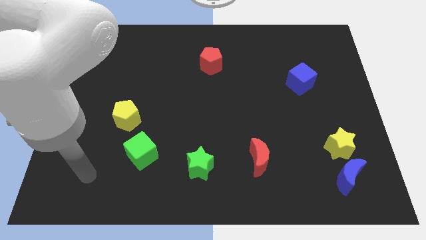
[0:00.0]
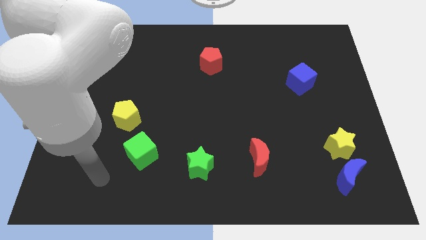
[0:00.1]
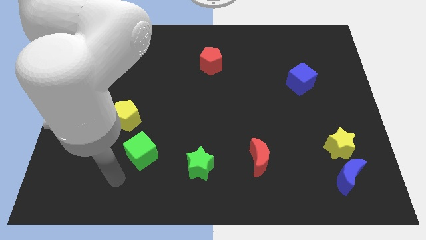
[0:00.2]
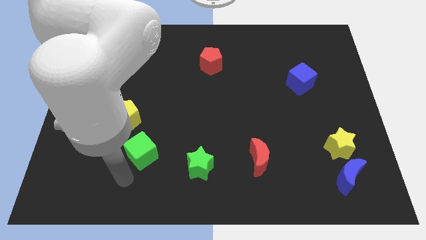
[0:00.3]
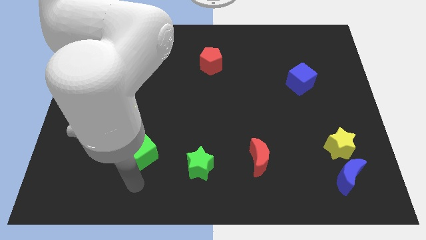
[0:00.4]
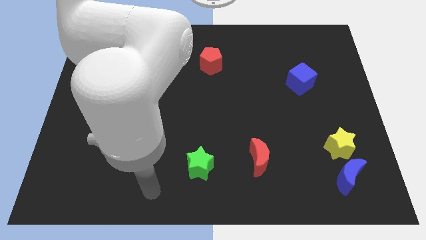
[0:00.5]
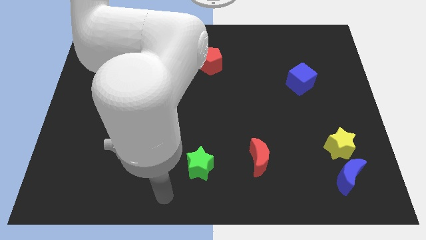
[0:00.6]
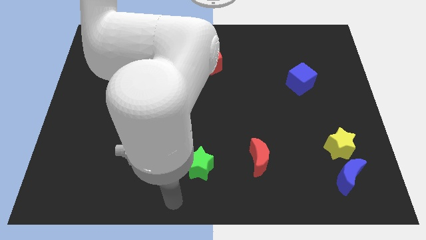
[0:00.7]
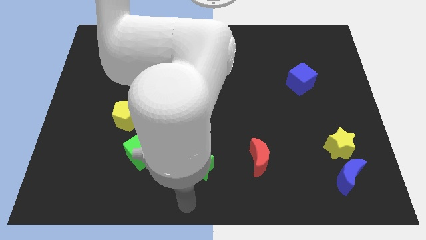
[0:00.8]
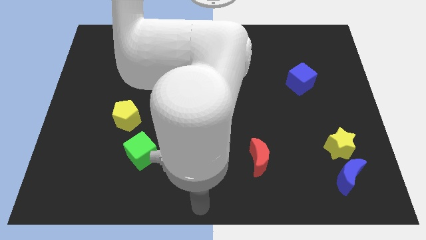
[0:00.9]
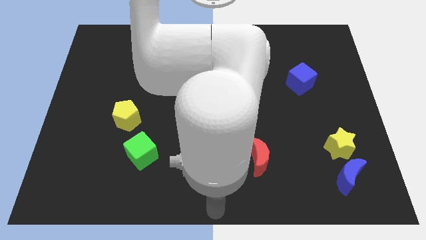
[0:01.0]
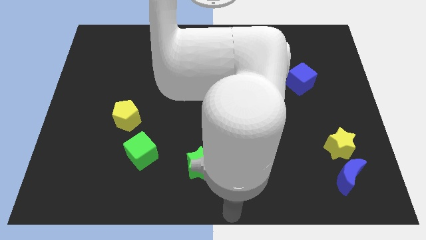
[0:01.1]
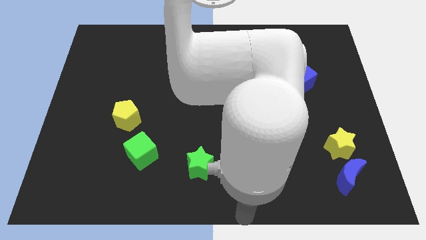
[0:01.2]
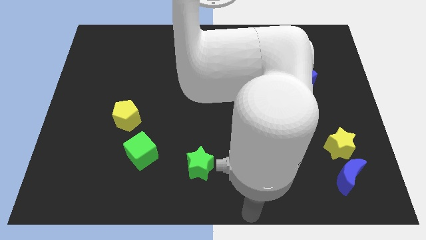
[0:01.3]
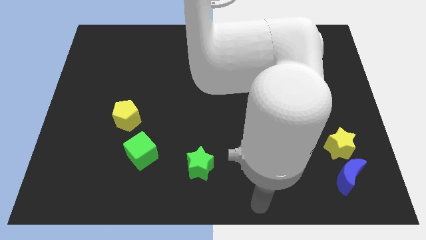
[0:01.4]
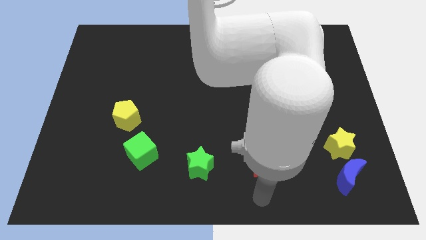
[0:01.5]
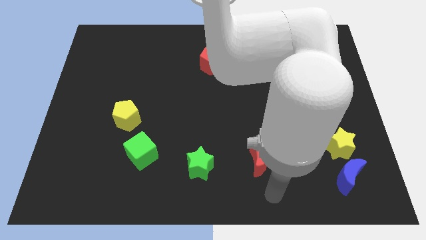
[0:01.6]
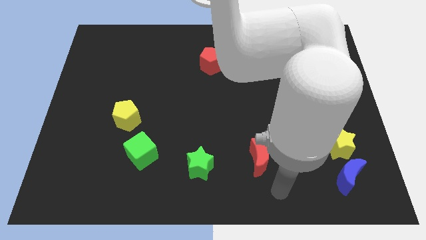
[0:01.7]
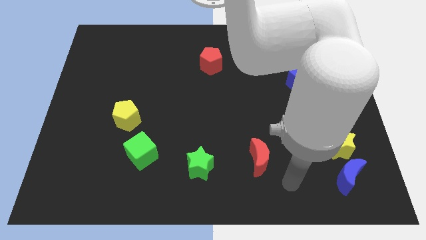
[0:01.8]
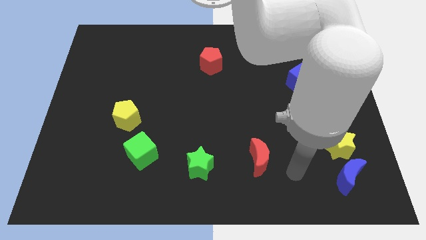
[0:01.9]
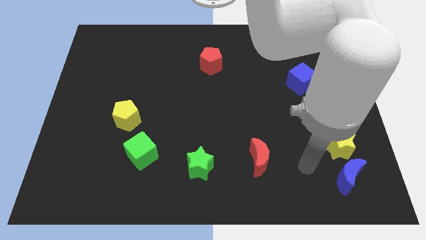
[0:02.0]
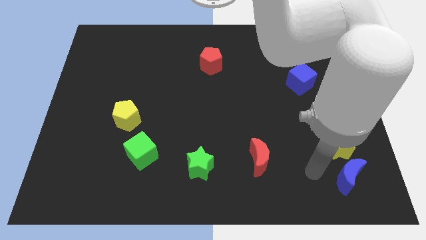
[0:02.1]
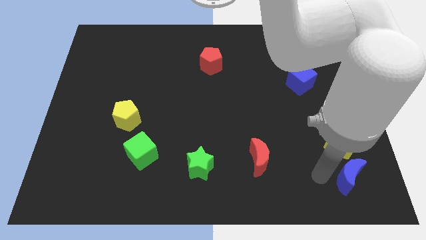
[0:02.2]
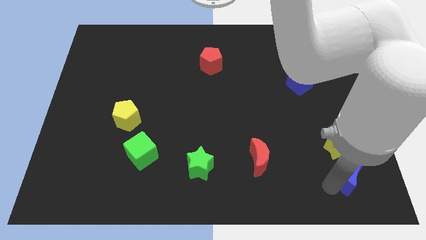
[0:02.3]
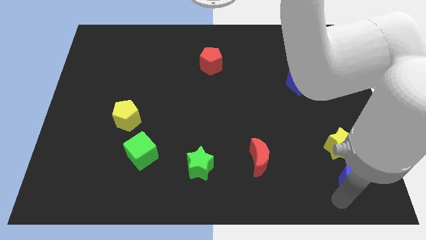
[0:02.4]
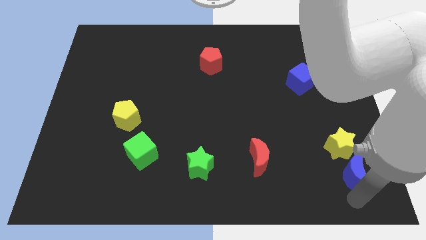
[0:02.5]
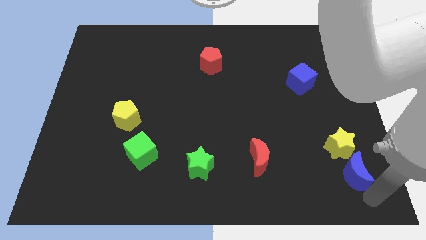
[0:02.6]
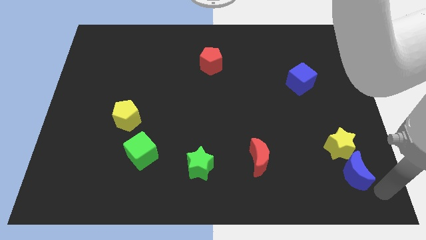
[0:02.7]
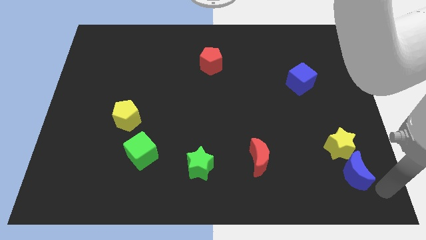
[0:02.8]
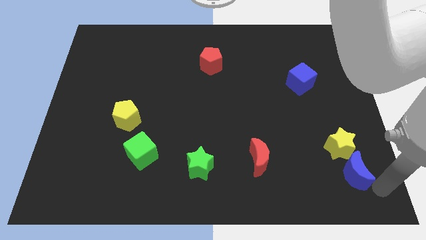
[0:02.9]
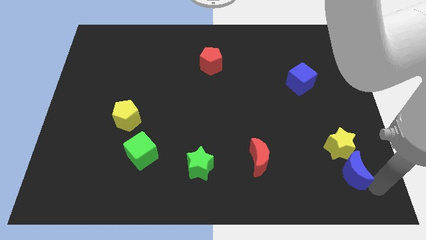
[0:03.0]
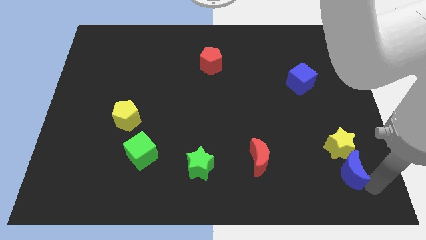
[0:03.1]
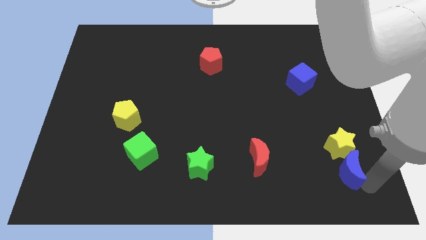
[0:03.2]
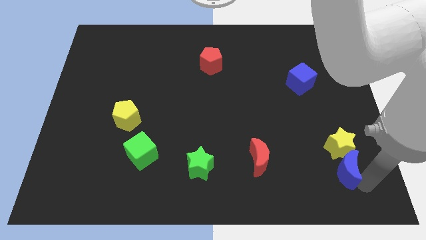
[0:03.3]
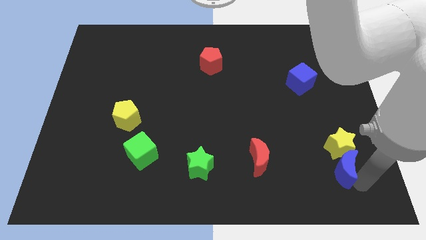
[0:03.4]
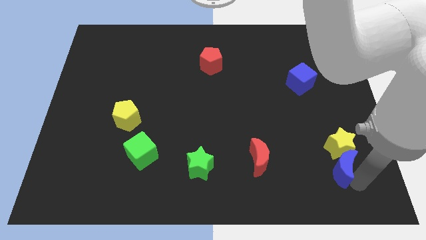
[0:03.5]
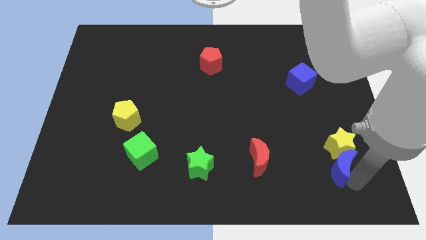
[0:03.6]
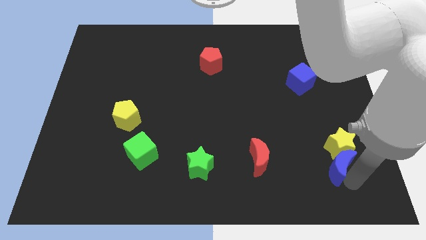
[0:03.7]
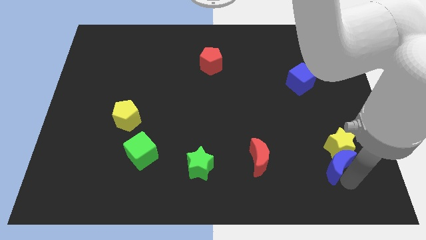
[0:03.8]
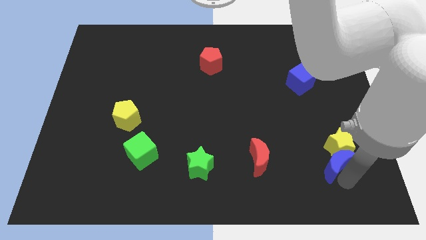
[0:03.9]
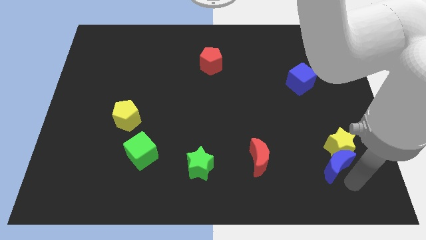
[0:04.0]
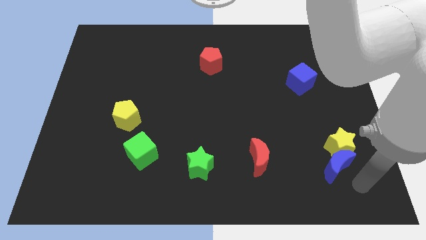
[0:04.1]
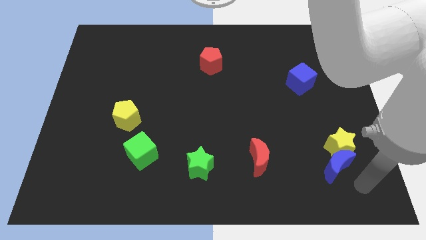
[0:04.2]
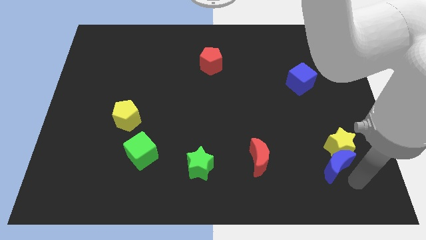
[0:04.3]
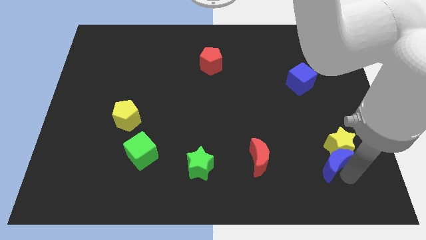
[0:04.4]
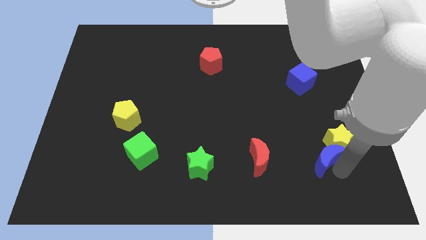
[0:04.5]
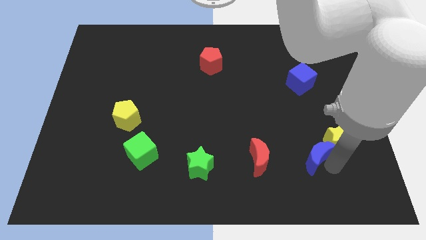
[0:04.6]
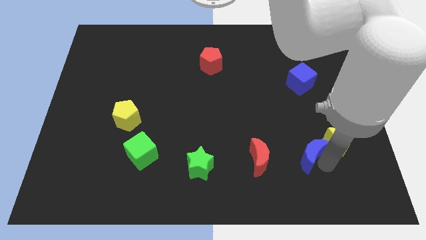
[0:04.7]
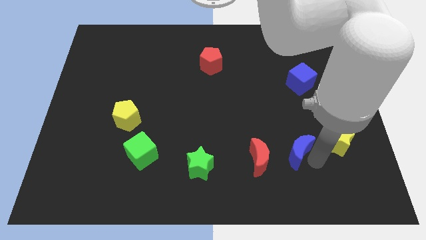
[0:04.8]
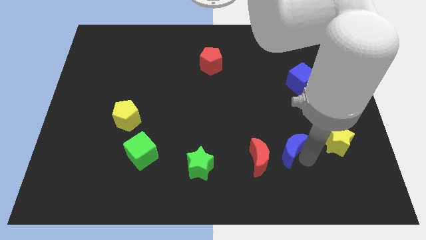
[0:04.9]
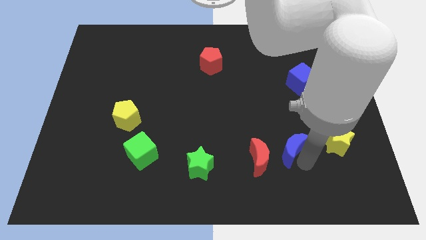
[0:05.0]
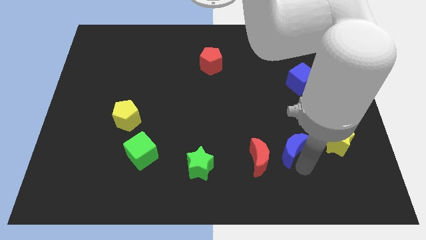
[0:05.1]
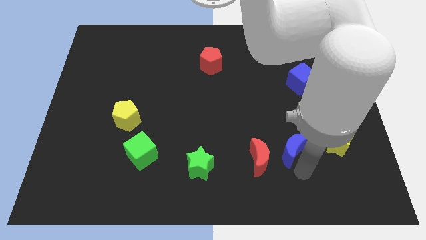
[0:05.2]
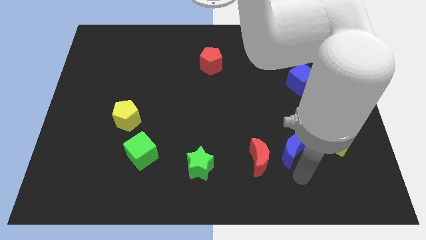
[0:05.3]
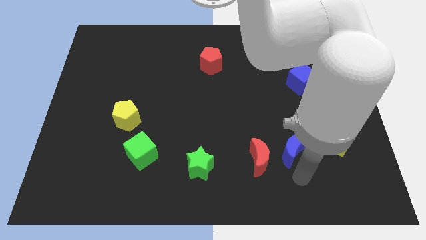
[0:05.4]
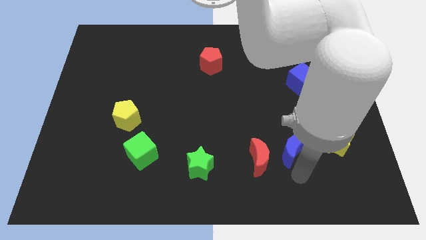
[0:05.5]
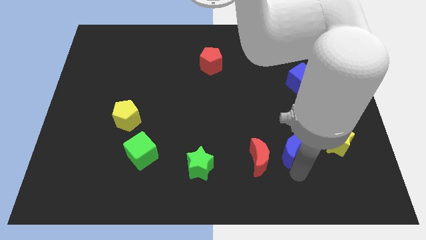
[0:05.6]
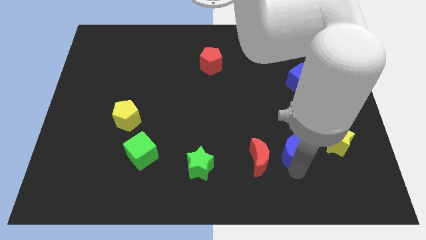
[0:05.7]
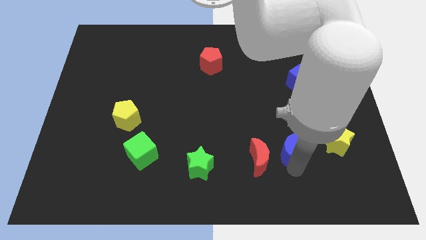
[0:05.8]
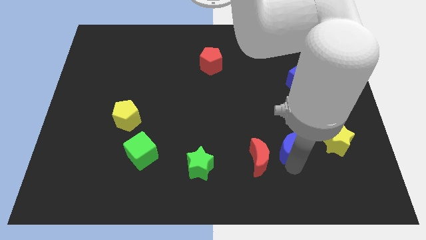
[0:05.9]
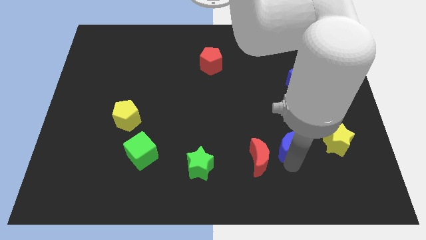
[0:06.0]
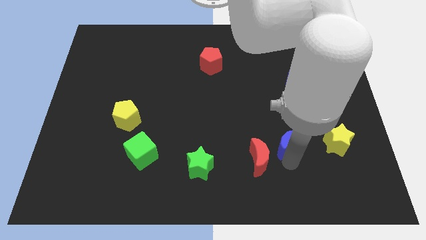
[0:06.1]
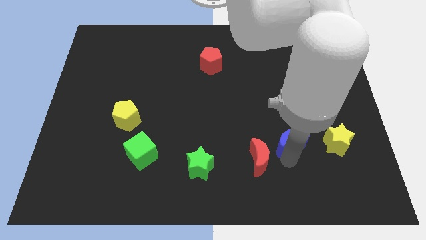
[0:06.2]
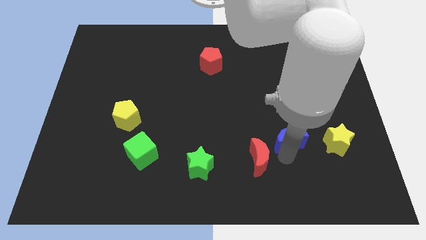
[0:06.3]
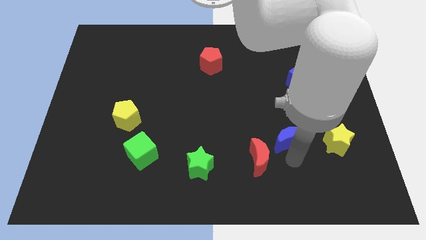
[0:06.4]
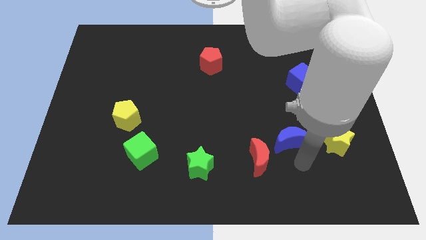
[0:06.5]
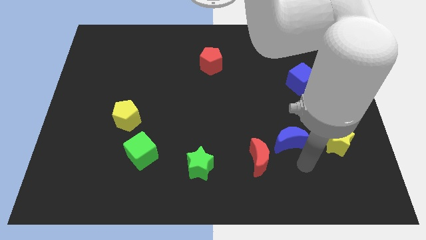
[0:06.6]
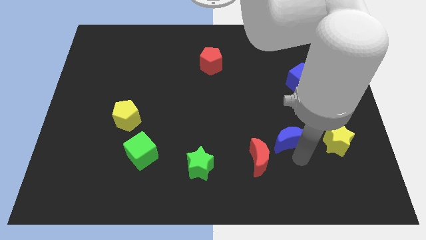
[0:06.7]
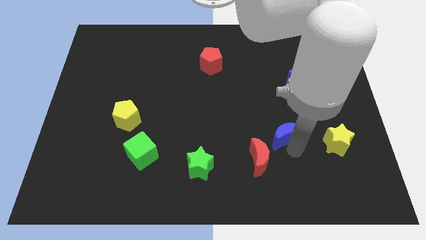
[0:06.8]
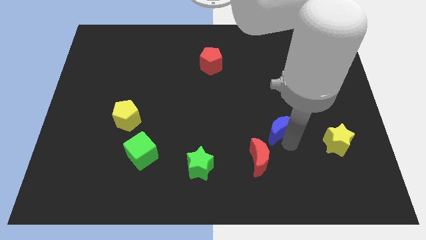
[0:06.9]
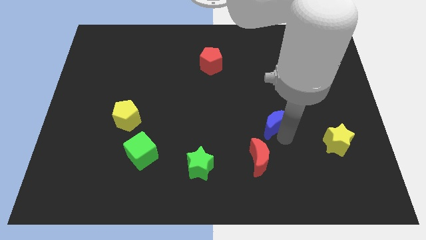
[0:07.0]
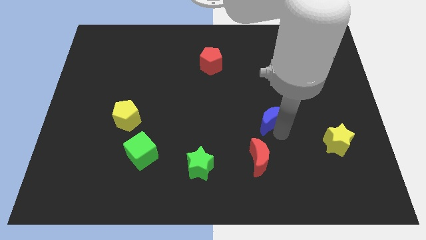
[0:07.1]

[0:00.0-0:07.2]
move the blue moon upwards and then left

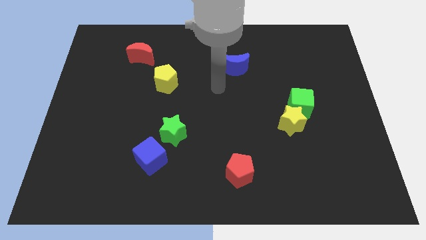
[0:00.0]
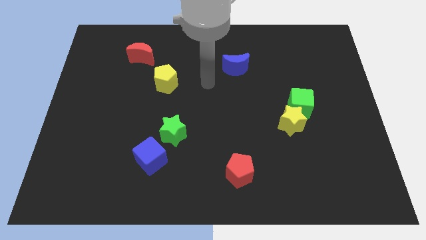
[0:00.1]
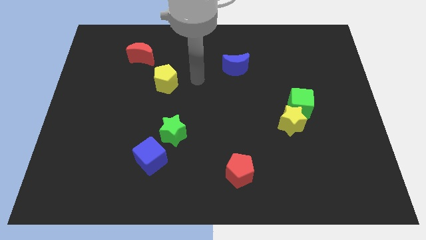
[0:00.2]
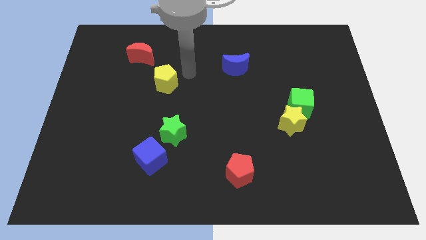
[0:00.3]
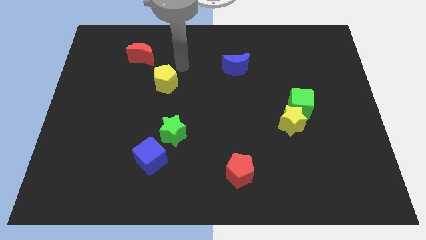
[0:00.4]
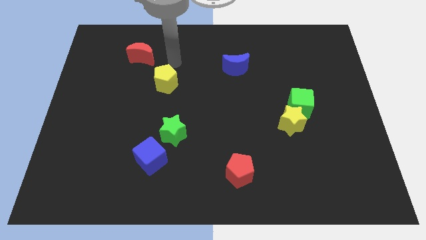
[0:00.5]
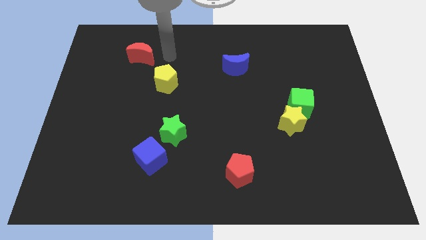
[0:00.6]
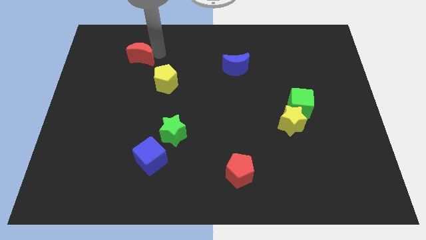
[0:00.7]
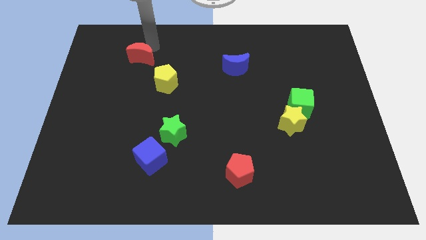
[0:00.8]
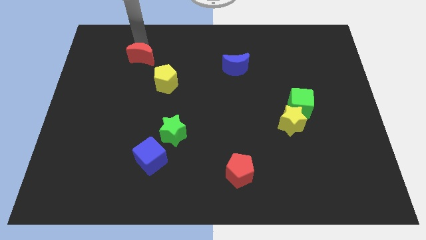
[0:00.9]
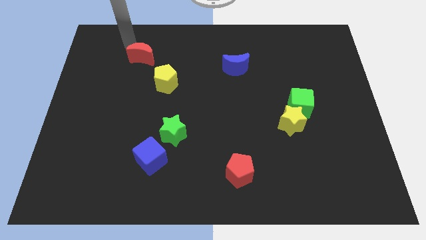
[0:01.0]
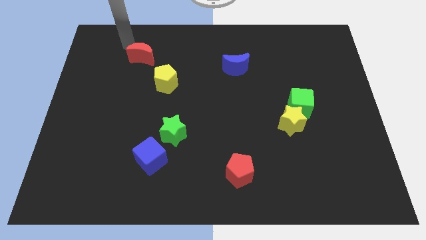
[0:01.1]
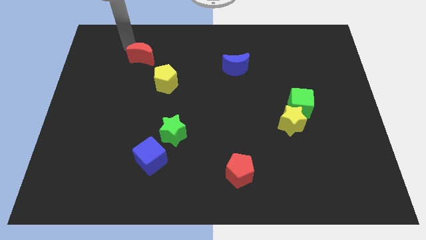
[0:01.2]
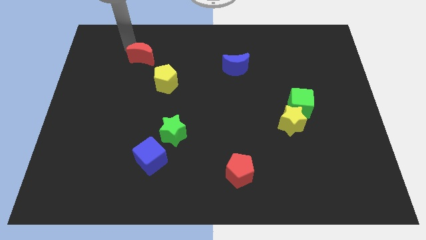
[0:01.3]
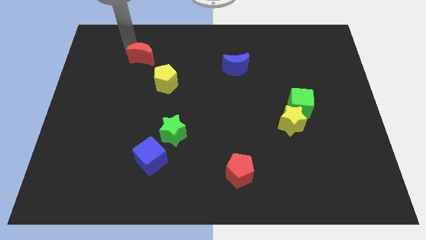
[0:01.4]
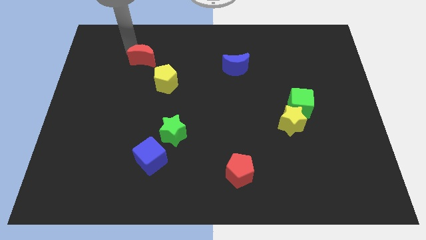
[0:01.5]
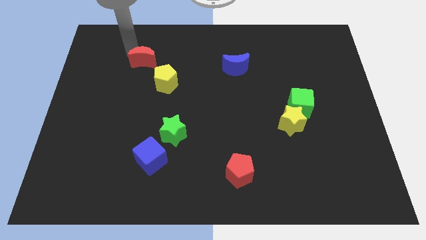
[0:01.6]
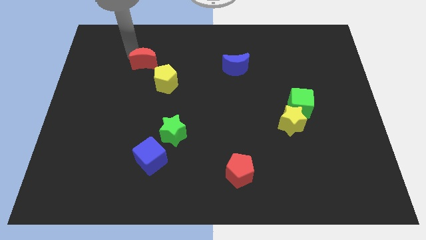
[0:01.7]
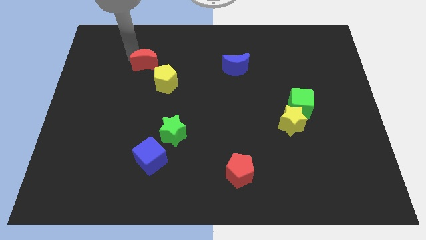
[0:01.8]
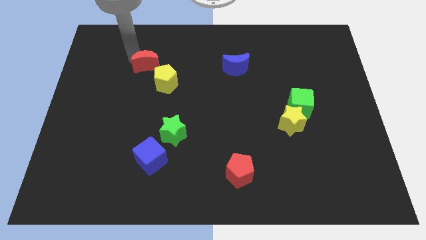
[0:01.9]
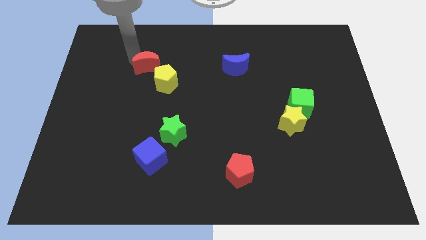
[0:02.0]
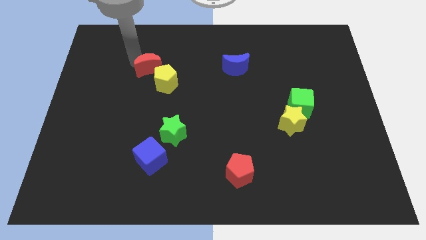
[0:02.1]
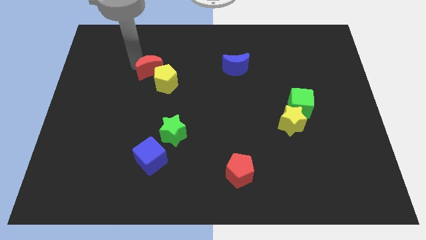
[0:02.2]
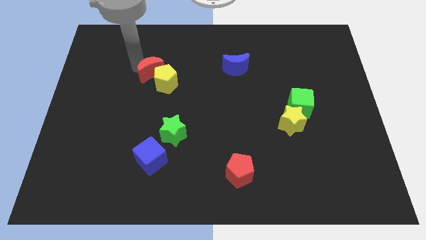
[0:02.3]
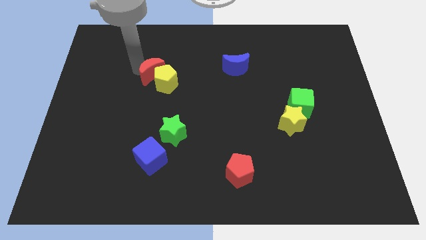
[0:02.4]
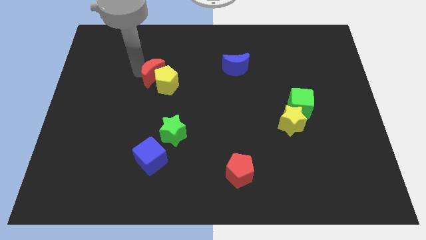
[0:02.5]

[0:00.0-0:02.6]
slide the red moon a little down and then right
